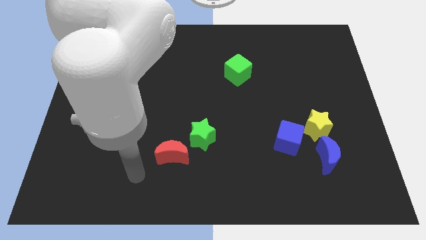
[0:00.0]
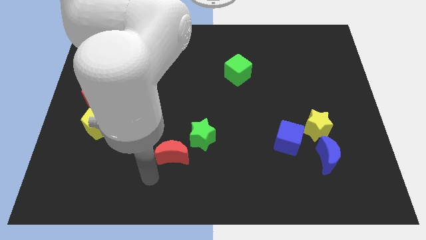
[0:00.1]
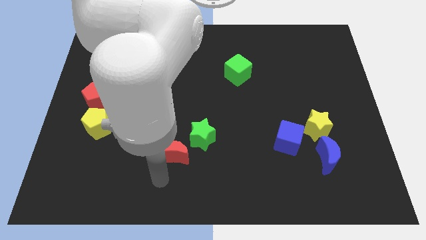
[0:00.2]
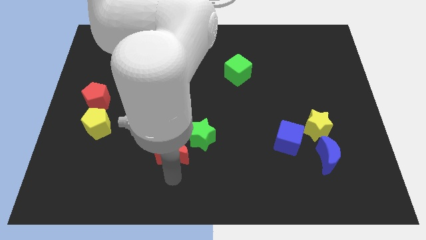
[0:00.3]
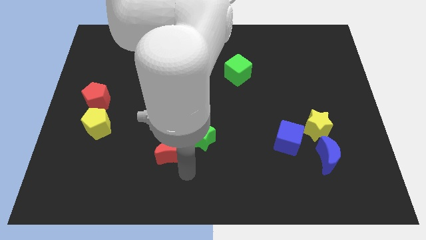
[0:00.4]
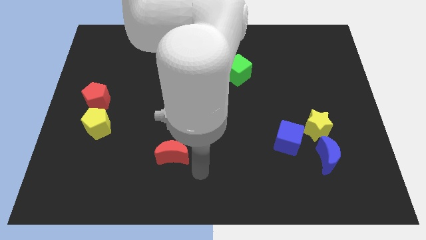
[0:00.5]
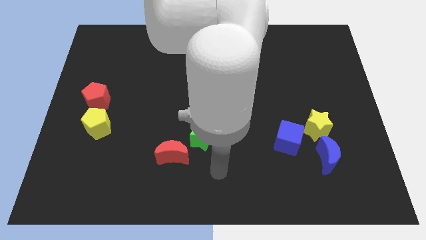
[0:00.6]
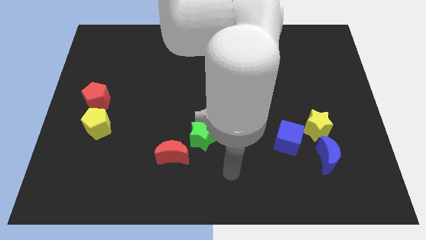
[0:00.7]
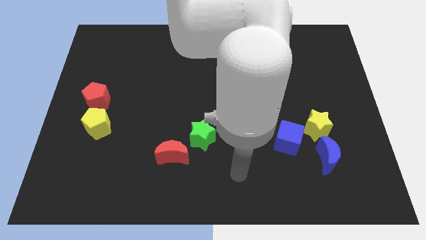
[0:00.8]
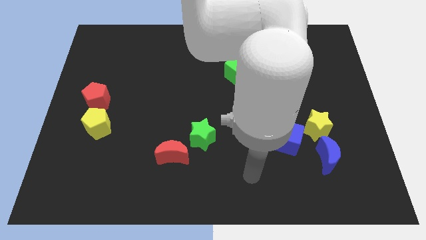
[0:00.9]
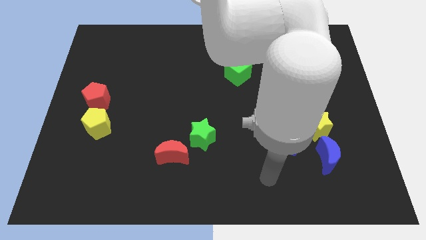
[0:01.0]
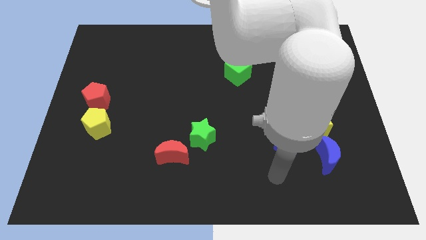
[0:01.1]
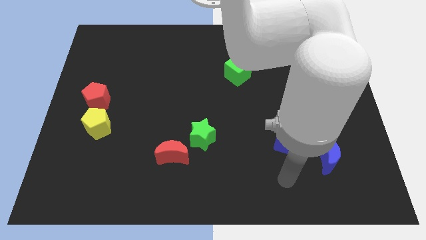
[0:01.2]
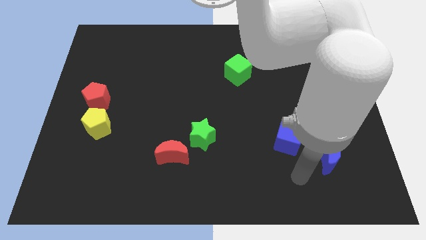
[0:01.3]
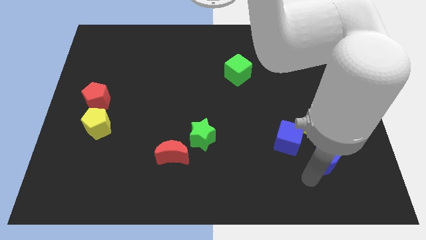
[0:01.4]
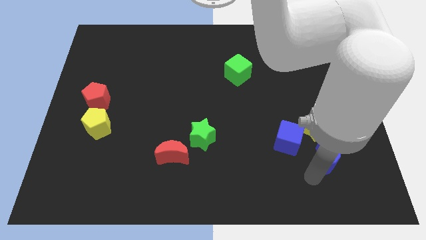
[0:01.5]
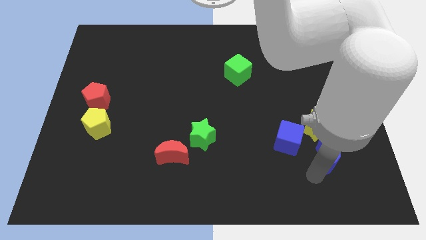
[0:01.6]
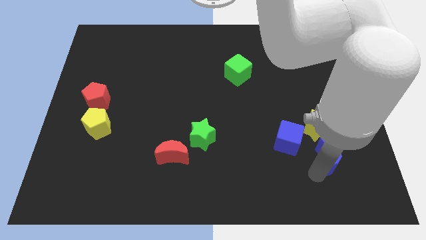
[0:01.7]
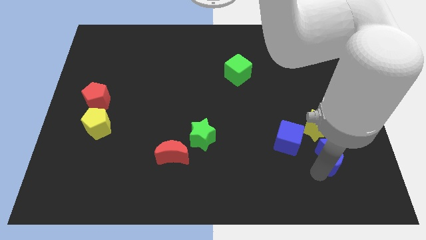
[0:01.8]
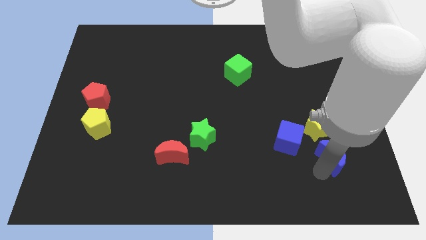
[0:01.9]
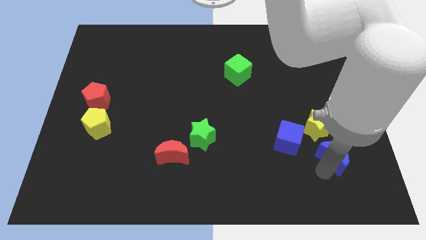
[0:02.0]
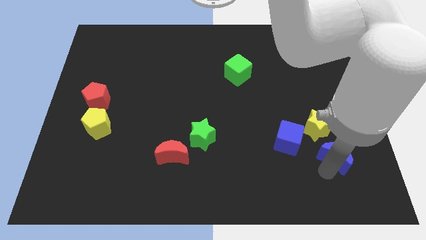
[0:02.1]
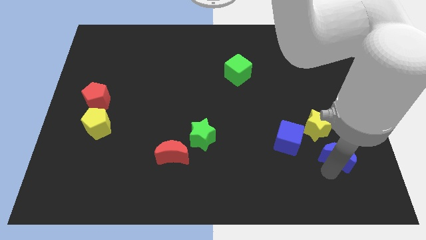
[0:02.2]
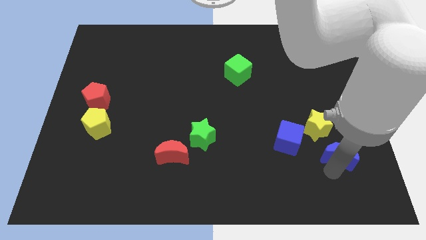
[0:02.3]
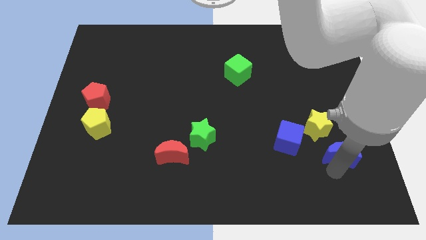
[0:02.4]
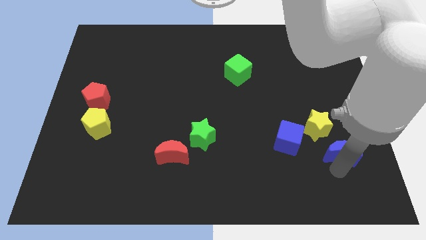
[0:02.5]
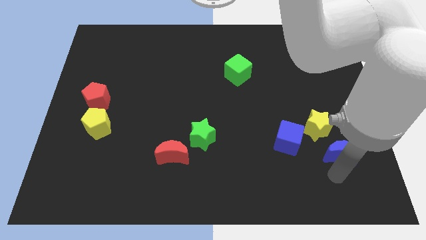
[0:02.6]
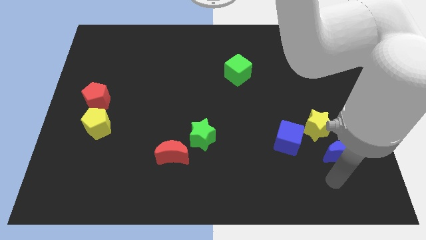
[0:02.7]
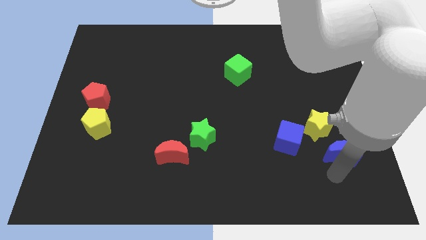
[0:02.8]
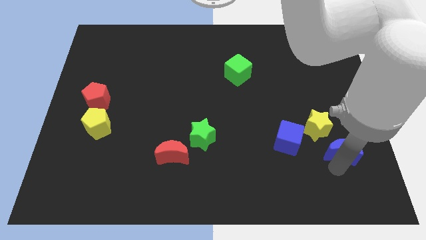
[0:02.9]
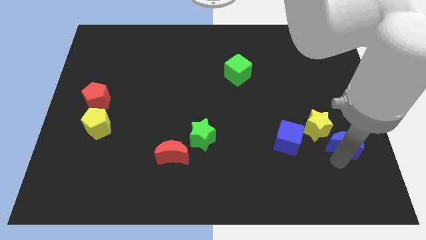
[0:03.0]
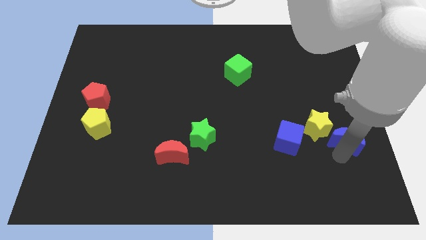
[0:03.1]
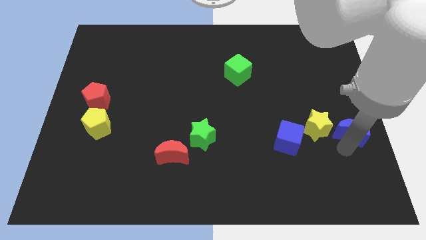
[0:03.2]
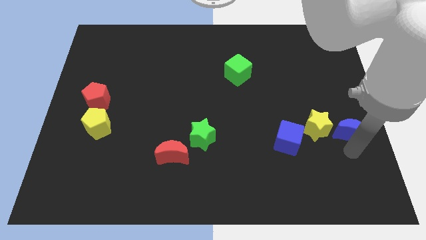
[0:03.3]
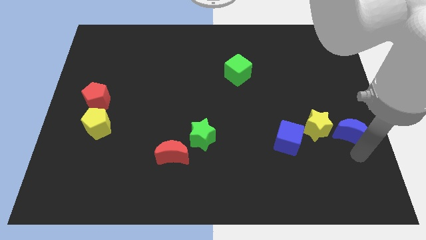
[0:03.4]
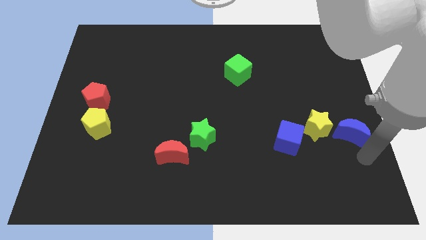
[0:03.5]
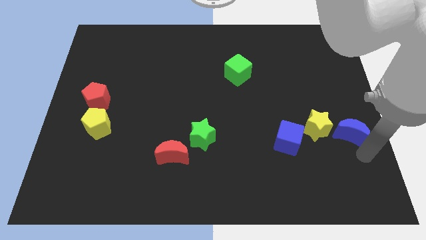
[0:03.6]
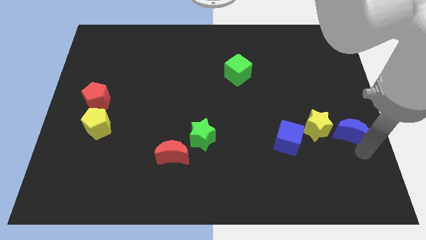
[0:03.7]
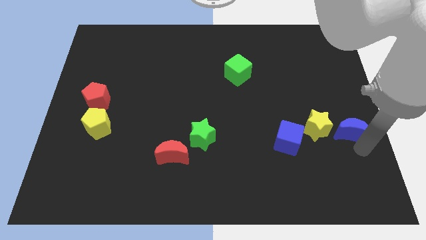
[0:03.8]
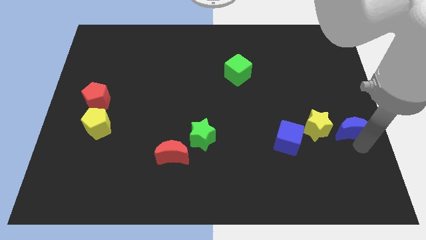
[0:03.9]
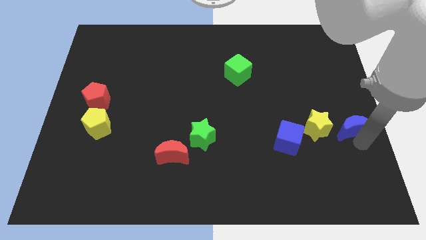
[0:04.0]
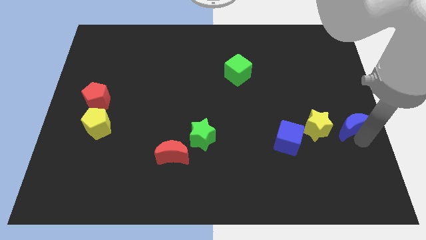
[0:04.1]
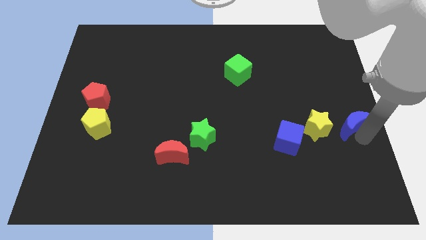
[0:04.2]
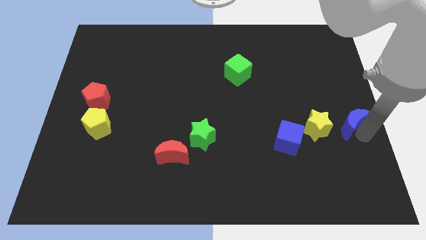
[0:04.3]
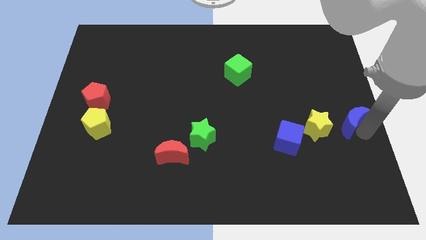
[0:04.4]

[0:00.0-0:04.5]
move the blue moon diagonally up and to the right of the yellow star

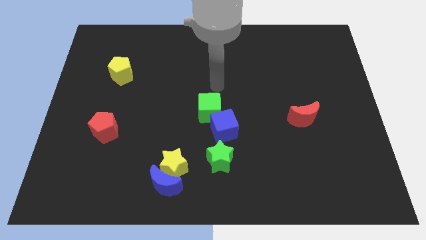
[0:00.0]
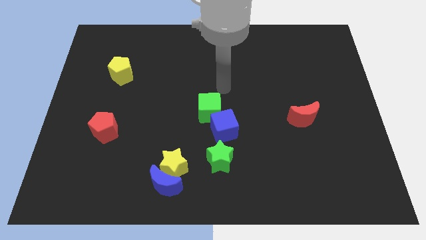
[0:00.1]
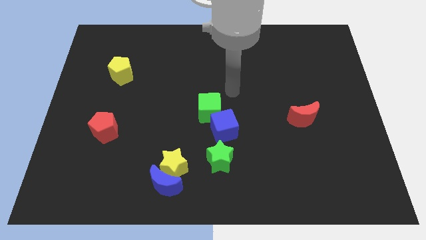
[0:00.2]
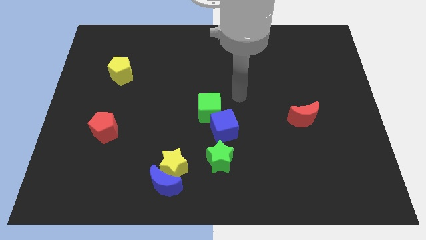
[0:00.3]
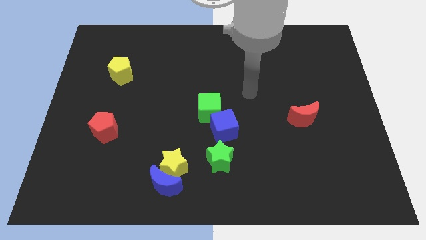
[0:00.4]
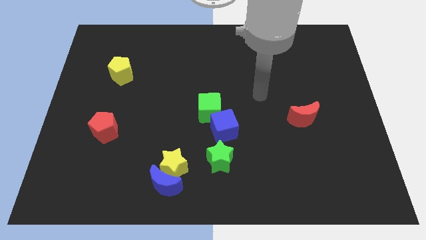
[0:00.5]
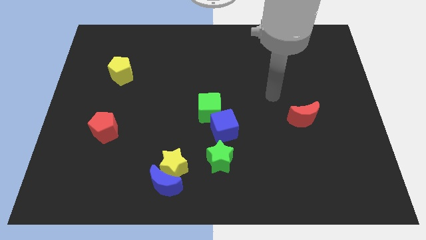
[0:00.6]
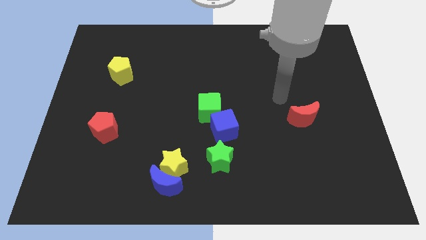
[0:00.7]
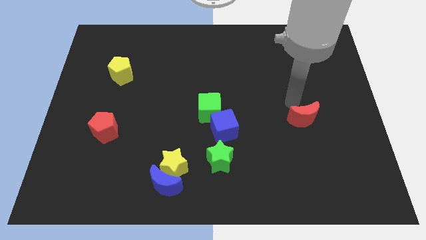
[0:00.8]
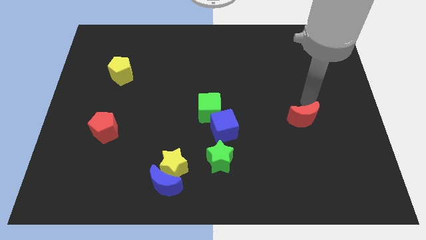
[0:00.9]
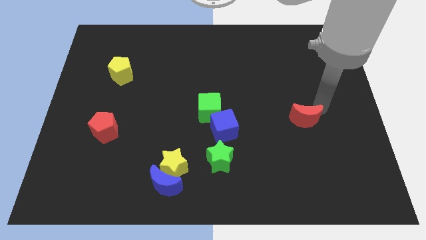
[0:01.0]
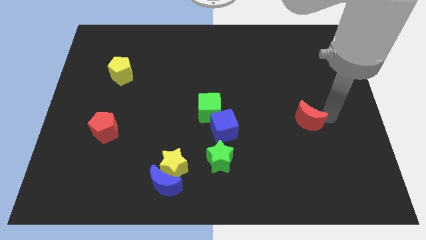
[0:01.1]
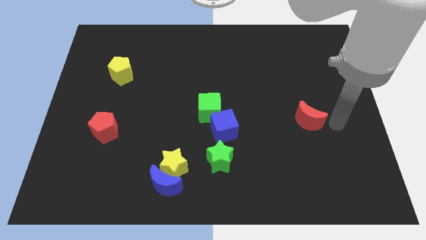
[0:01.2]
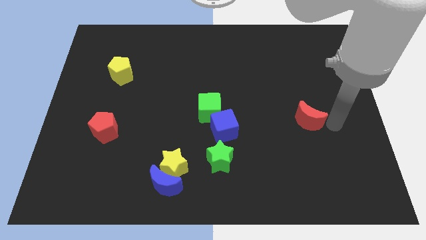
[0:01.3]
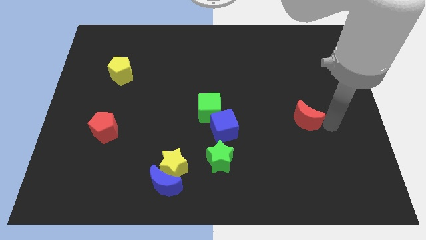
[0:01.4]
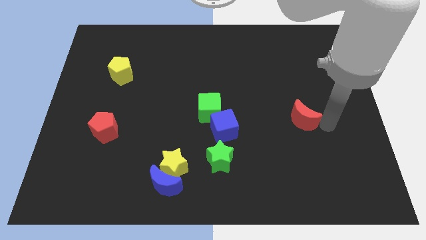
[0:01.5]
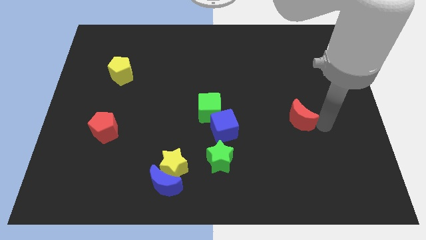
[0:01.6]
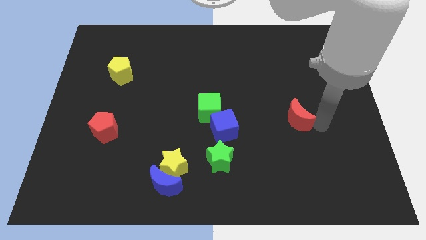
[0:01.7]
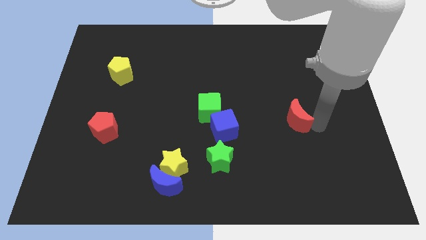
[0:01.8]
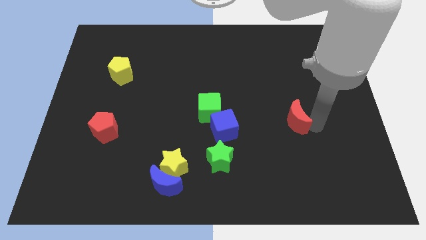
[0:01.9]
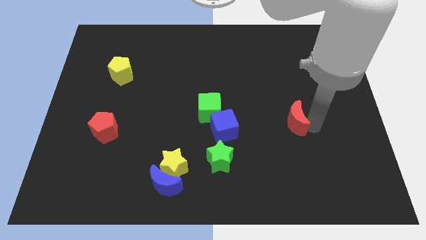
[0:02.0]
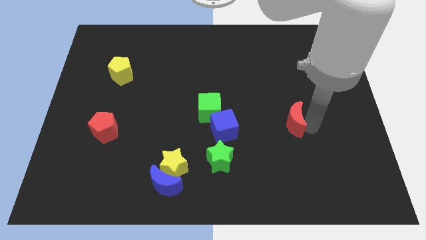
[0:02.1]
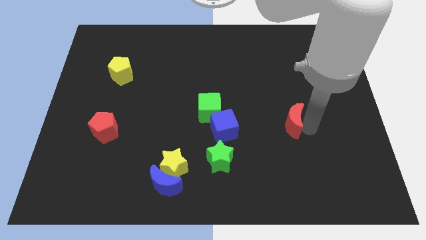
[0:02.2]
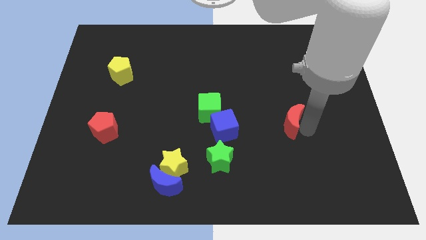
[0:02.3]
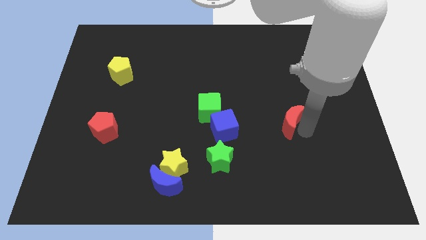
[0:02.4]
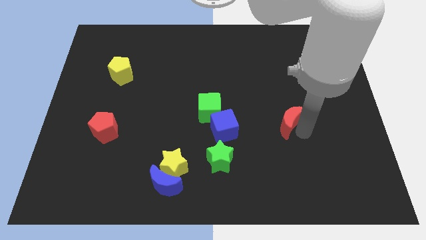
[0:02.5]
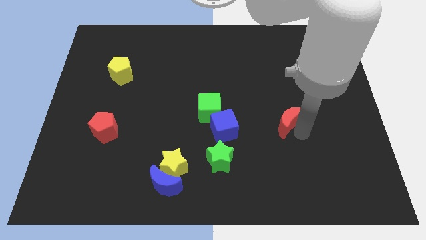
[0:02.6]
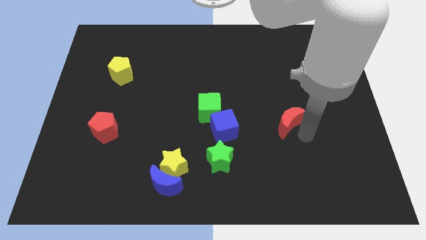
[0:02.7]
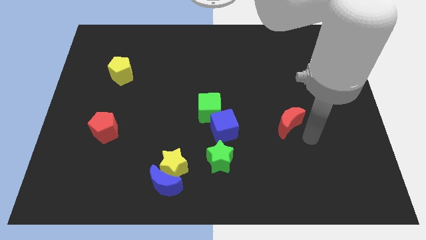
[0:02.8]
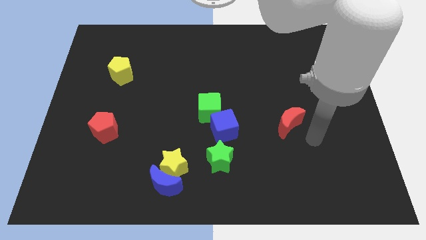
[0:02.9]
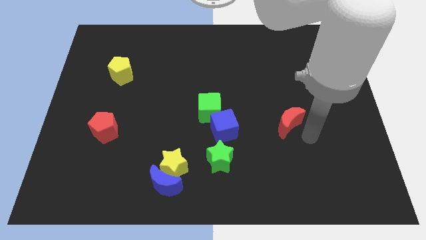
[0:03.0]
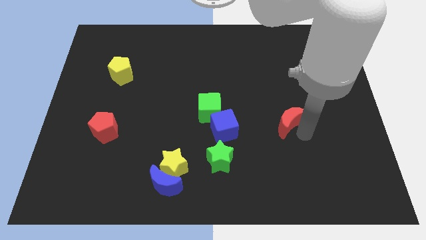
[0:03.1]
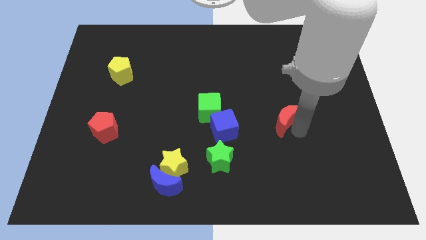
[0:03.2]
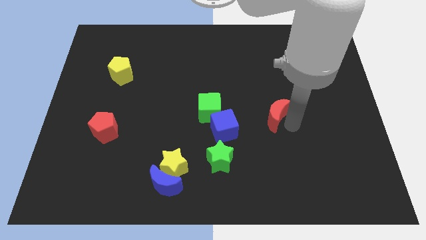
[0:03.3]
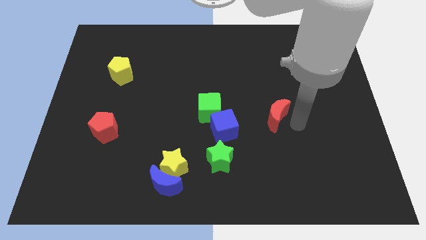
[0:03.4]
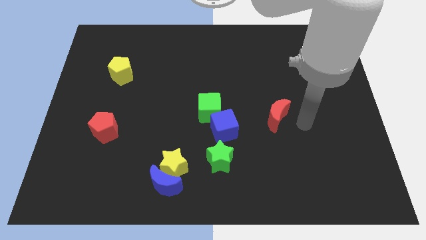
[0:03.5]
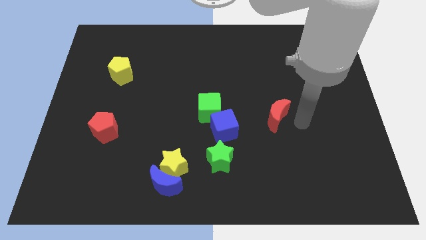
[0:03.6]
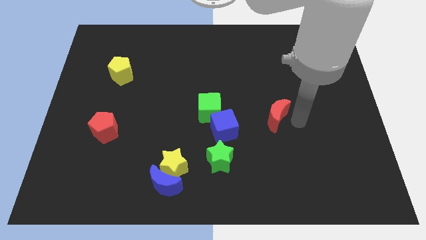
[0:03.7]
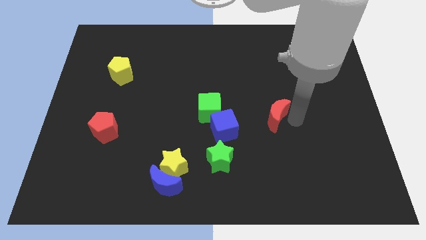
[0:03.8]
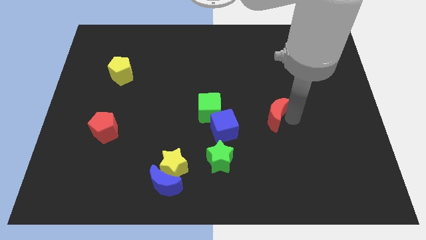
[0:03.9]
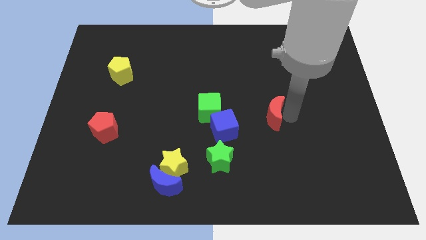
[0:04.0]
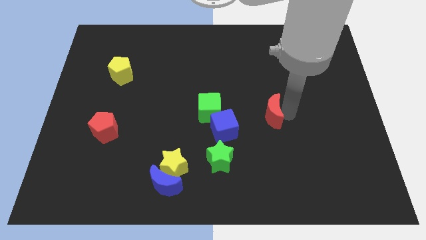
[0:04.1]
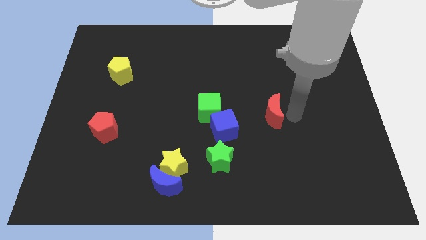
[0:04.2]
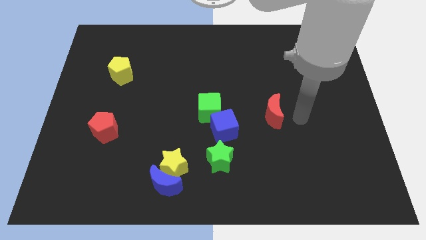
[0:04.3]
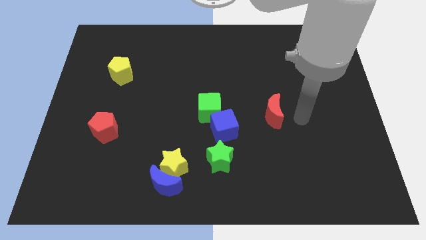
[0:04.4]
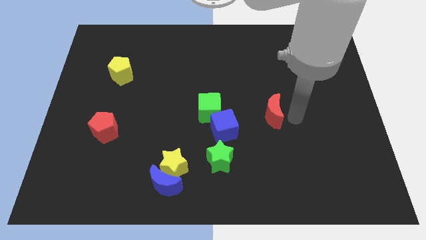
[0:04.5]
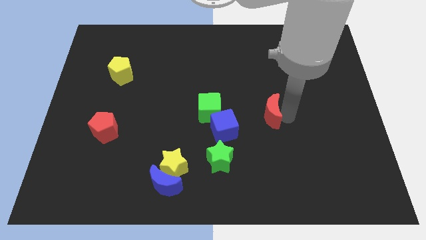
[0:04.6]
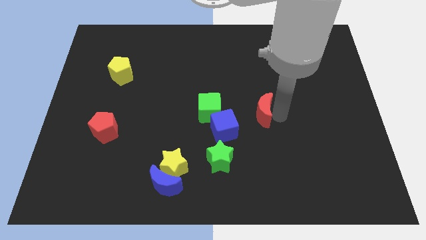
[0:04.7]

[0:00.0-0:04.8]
slide the red moon to the top right of the blue cube
